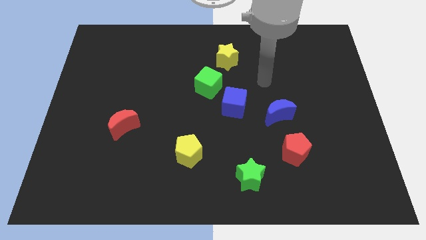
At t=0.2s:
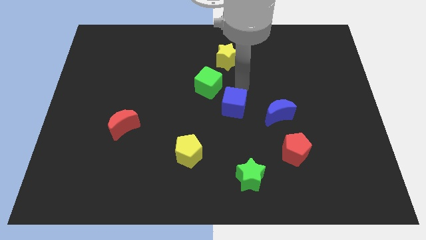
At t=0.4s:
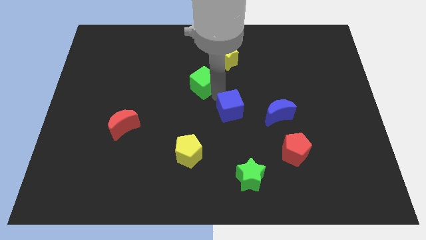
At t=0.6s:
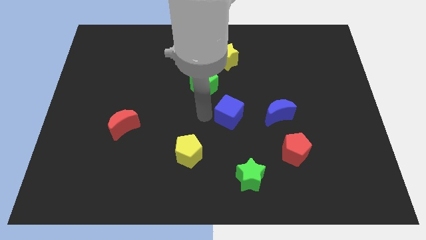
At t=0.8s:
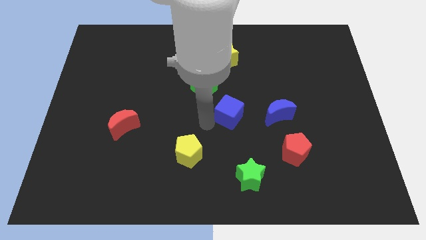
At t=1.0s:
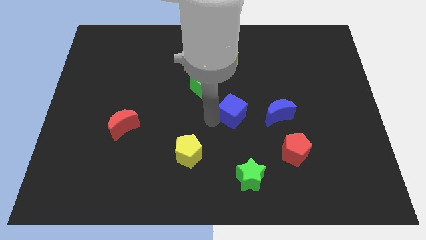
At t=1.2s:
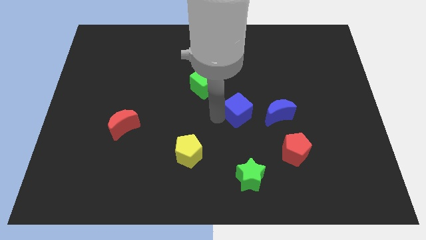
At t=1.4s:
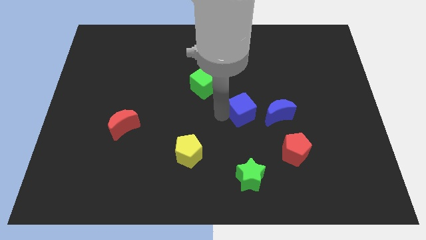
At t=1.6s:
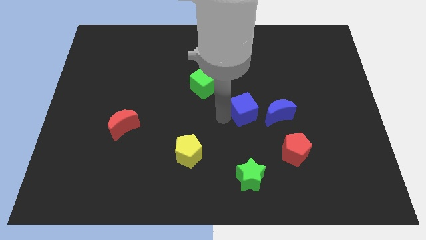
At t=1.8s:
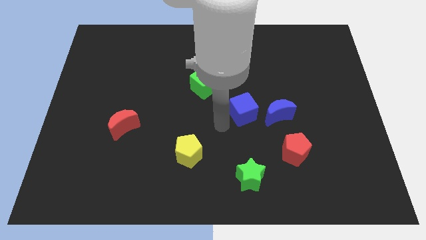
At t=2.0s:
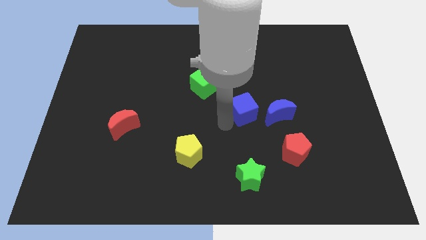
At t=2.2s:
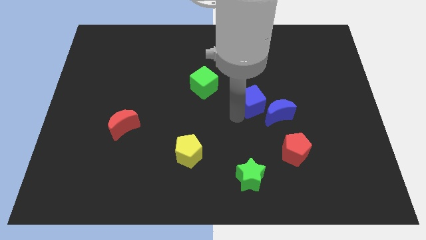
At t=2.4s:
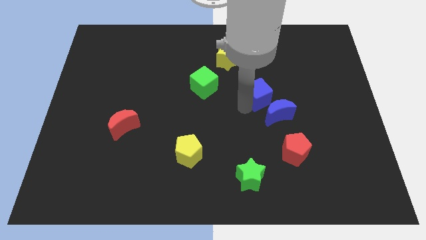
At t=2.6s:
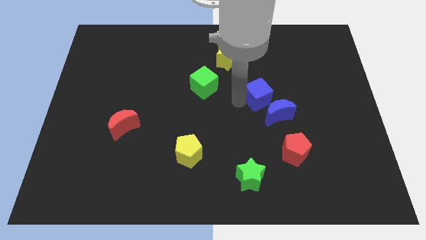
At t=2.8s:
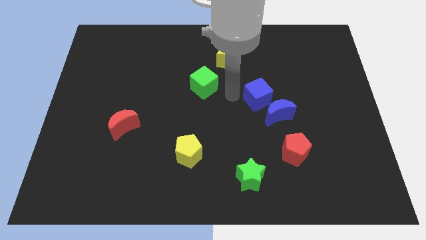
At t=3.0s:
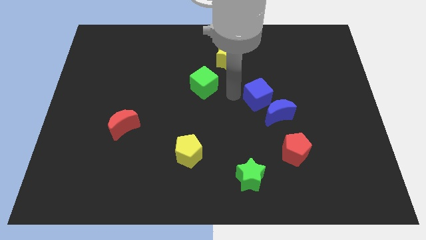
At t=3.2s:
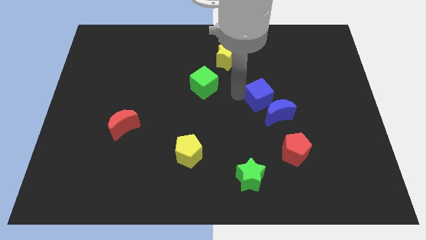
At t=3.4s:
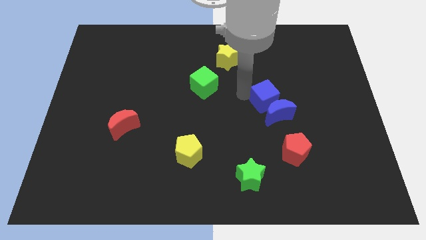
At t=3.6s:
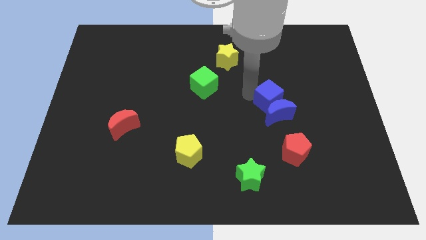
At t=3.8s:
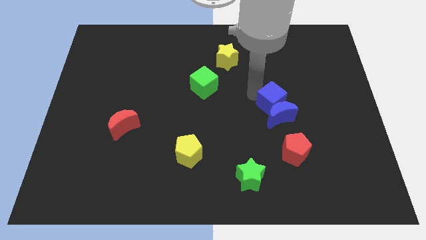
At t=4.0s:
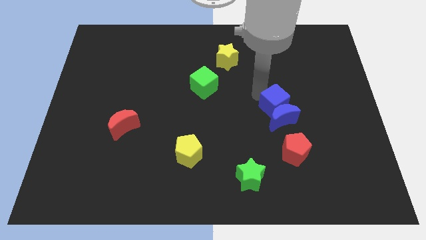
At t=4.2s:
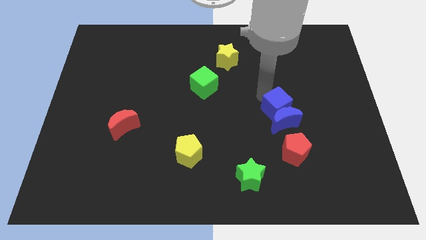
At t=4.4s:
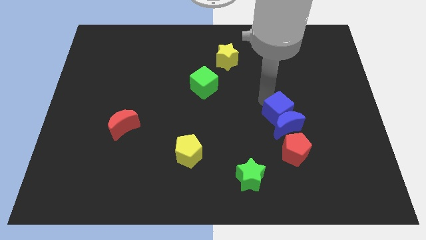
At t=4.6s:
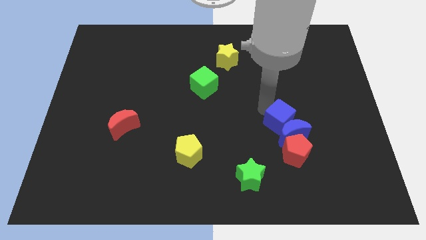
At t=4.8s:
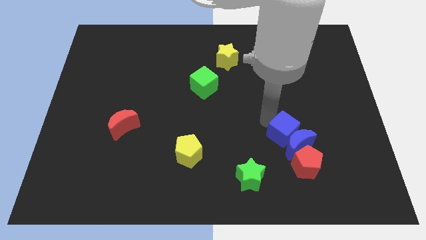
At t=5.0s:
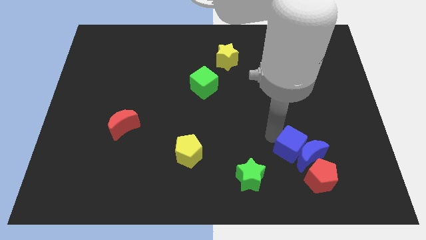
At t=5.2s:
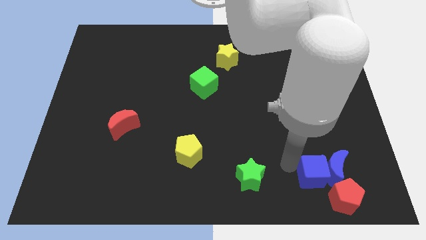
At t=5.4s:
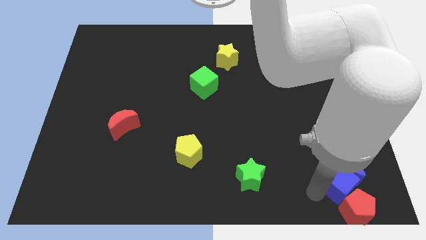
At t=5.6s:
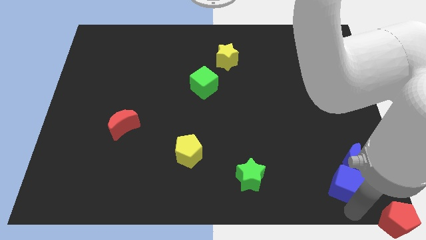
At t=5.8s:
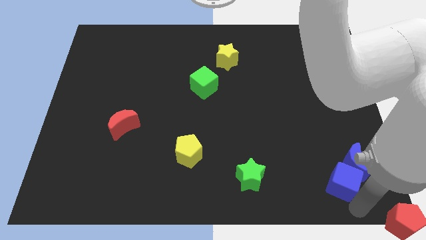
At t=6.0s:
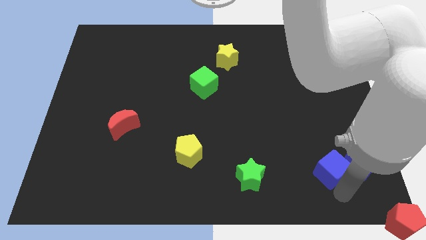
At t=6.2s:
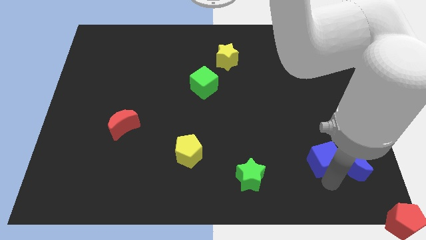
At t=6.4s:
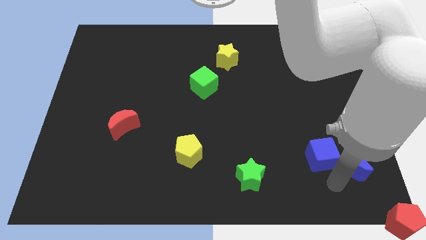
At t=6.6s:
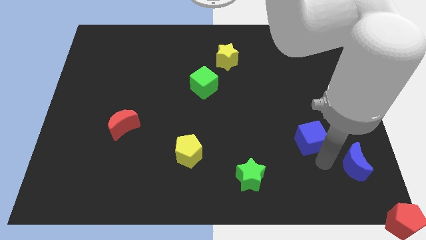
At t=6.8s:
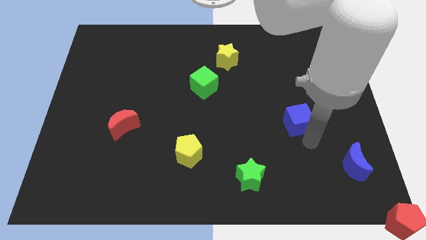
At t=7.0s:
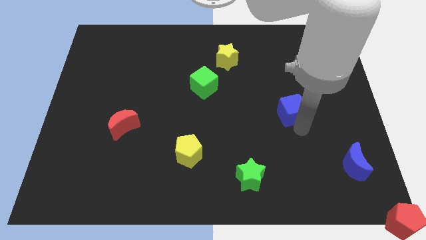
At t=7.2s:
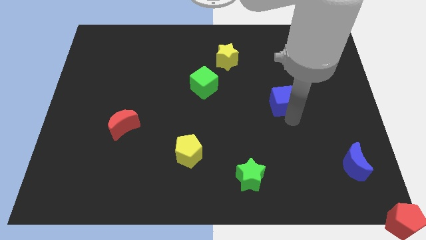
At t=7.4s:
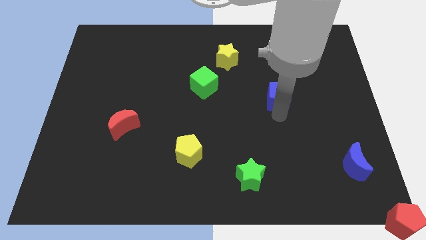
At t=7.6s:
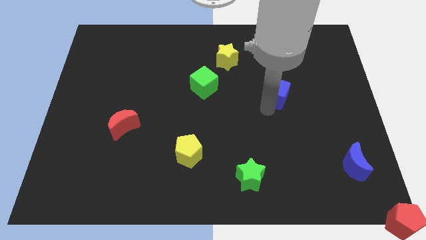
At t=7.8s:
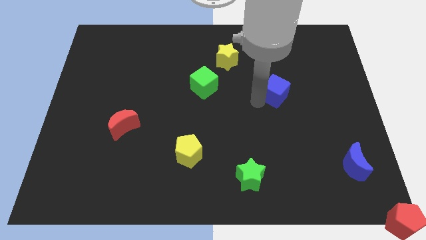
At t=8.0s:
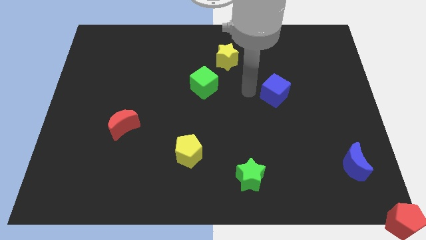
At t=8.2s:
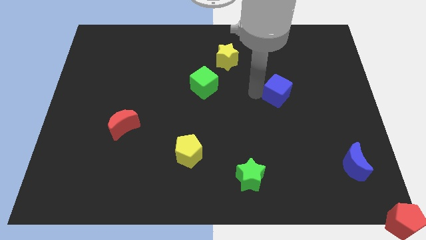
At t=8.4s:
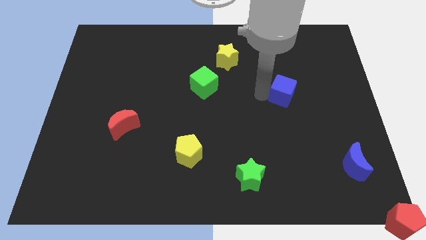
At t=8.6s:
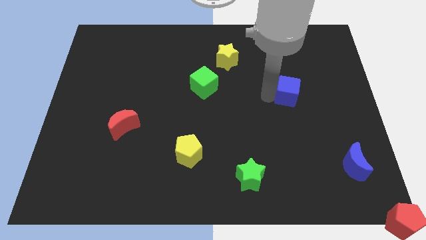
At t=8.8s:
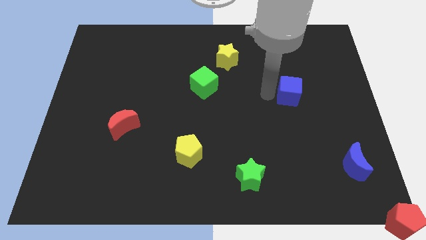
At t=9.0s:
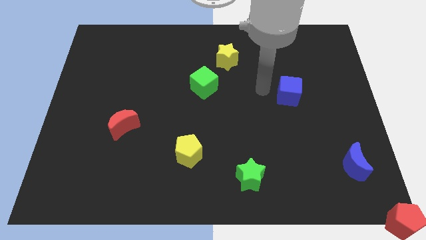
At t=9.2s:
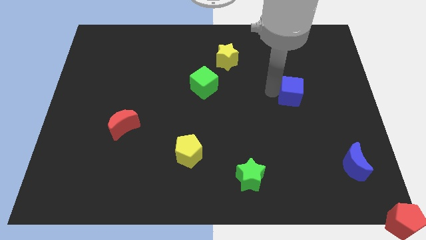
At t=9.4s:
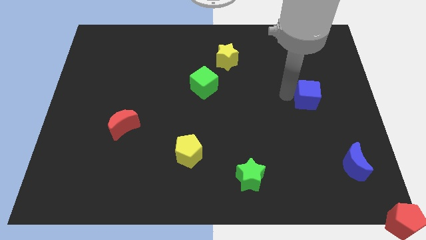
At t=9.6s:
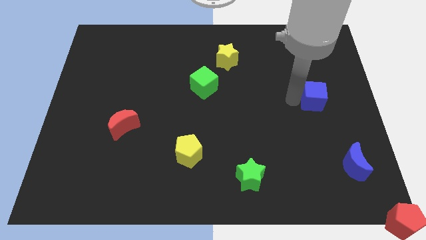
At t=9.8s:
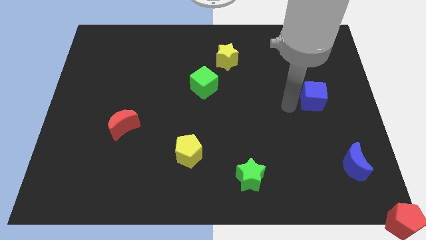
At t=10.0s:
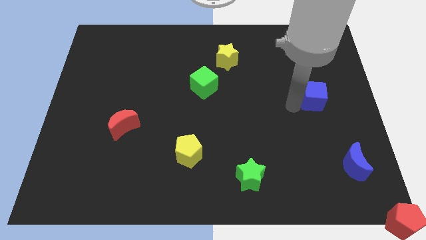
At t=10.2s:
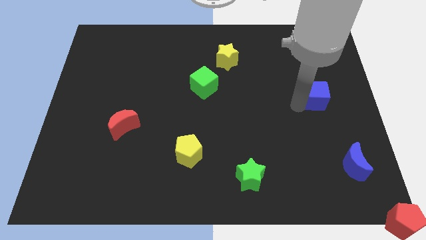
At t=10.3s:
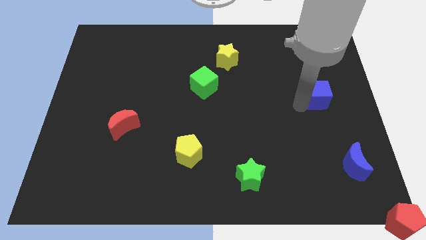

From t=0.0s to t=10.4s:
slide the blue cube to the center right
